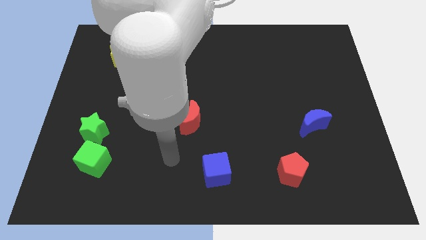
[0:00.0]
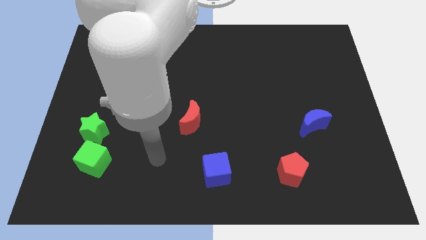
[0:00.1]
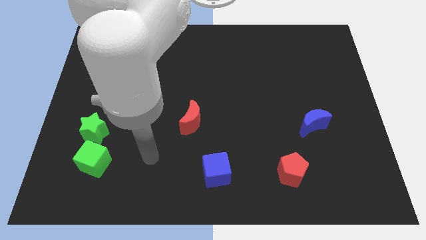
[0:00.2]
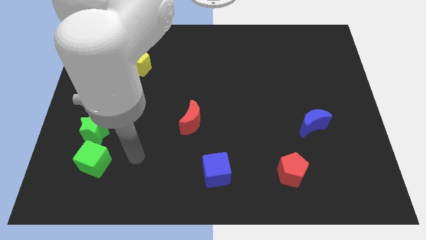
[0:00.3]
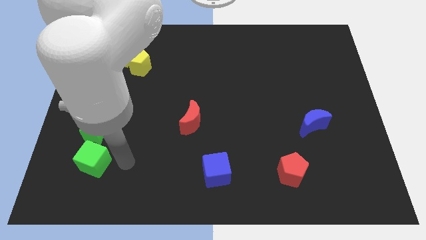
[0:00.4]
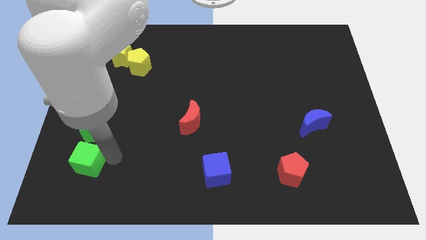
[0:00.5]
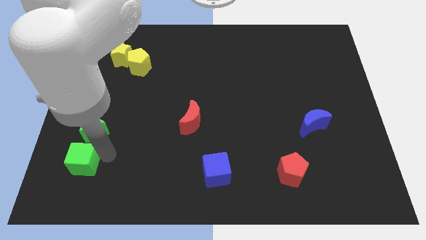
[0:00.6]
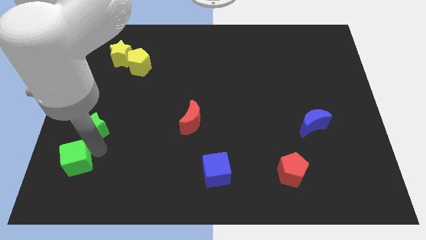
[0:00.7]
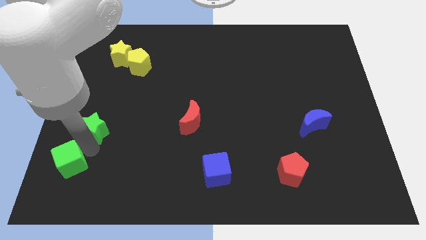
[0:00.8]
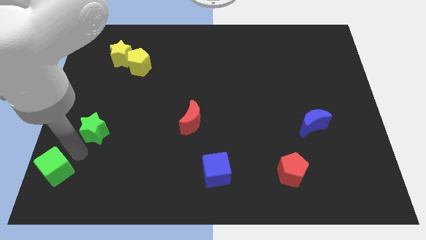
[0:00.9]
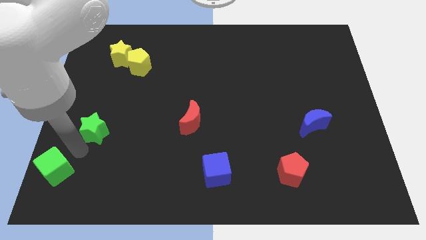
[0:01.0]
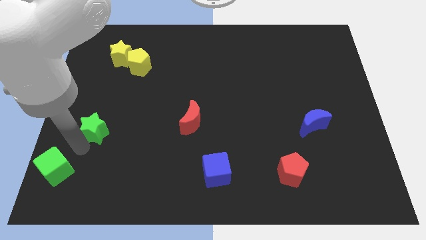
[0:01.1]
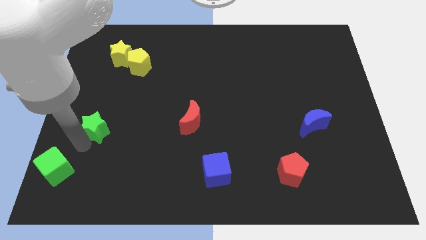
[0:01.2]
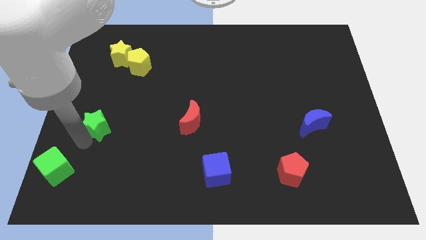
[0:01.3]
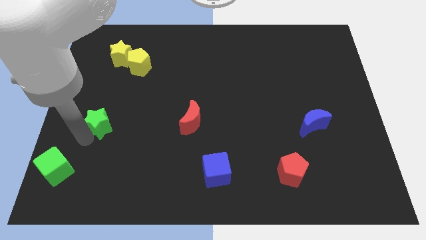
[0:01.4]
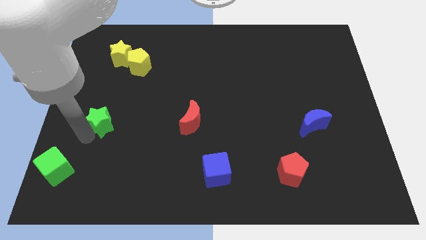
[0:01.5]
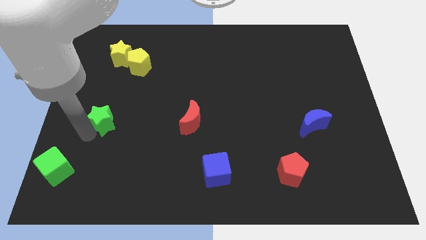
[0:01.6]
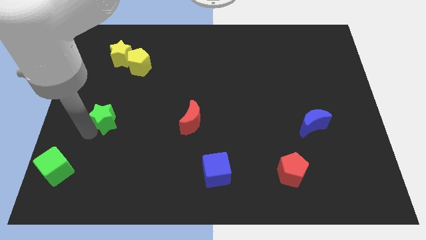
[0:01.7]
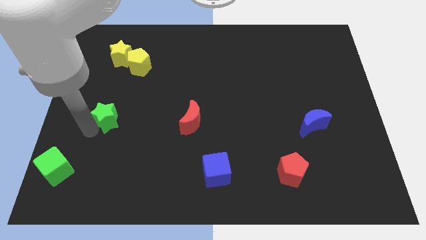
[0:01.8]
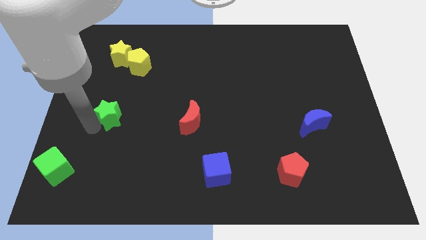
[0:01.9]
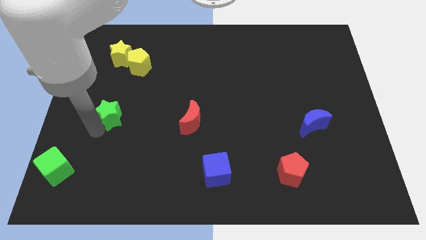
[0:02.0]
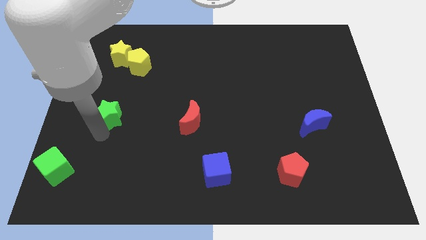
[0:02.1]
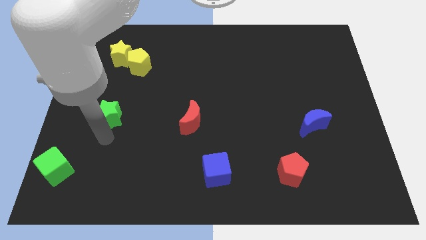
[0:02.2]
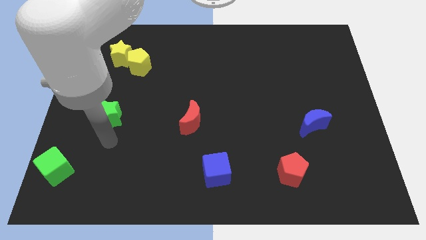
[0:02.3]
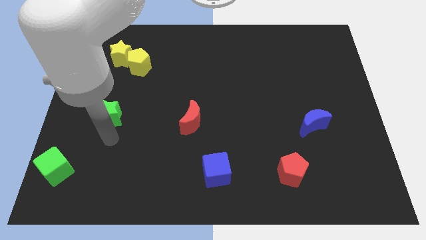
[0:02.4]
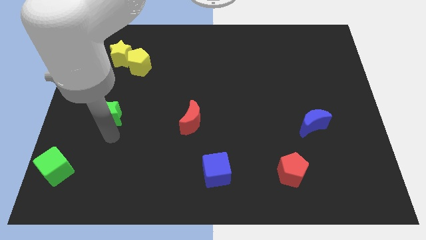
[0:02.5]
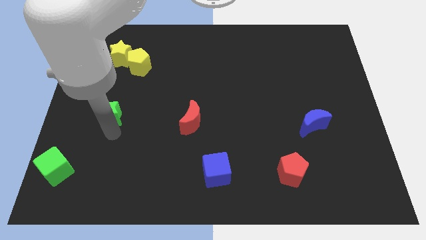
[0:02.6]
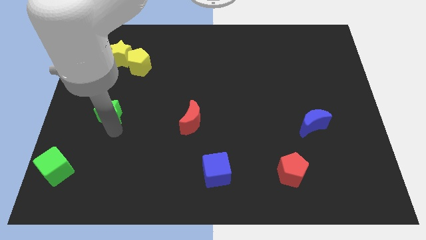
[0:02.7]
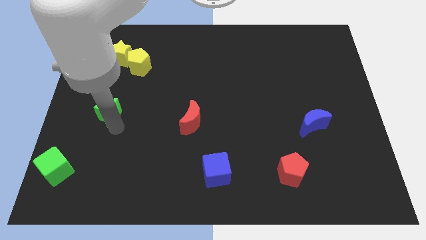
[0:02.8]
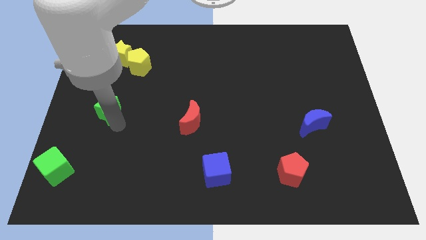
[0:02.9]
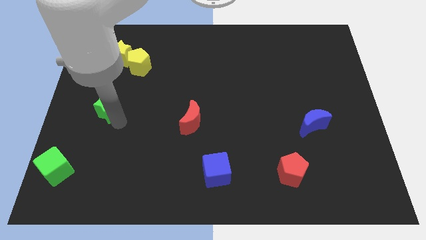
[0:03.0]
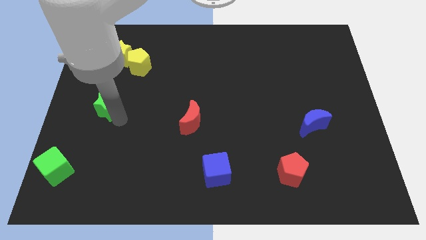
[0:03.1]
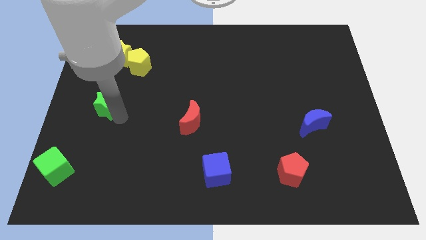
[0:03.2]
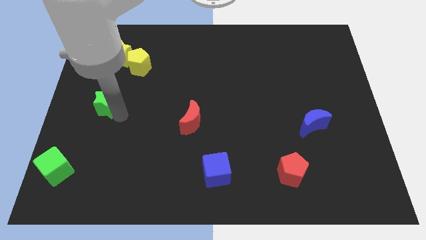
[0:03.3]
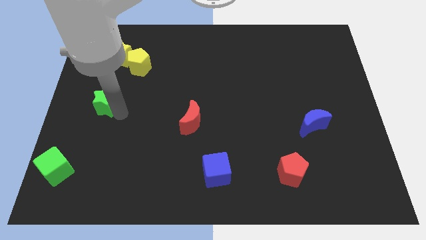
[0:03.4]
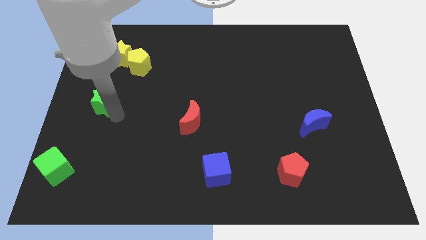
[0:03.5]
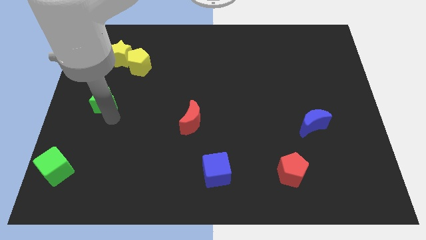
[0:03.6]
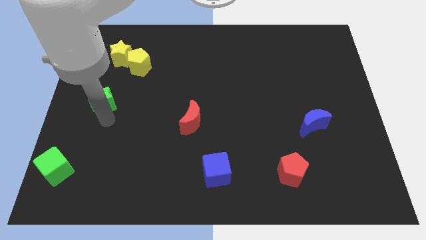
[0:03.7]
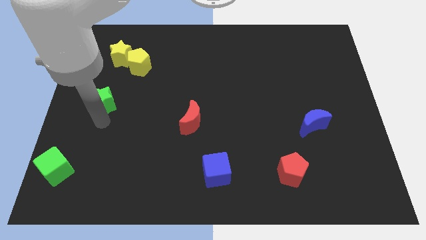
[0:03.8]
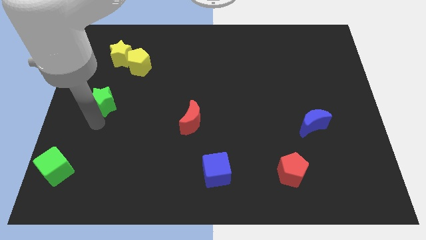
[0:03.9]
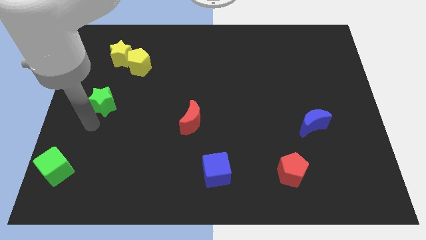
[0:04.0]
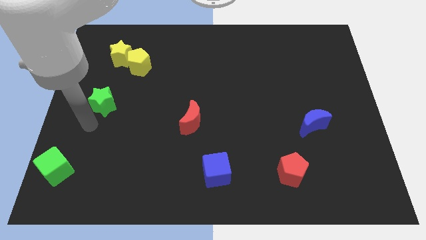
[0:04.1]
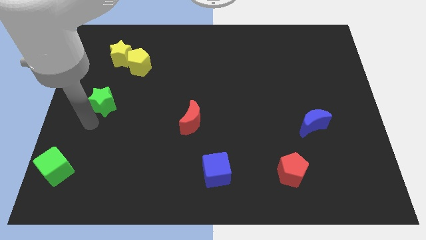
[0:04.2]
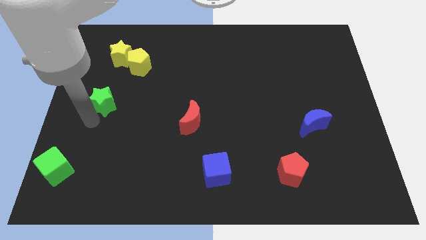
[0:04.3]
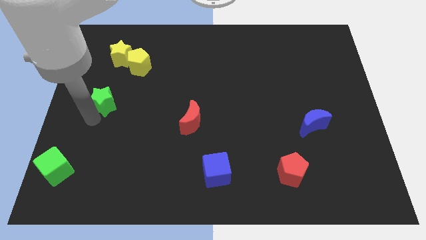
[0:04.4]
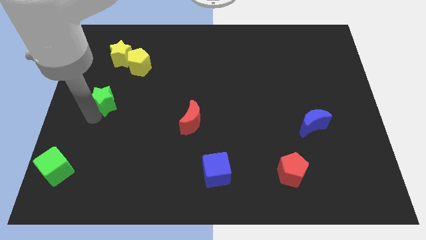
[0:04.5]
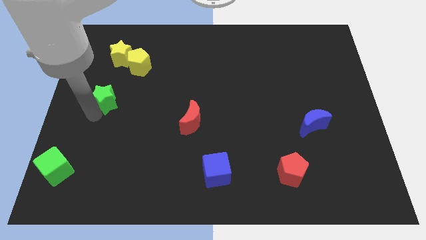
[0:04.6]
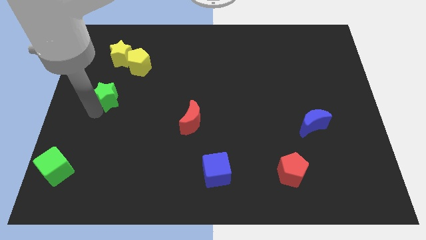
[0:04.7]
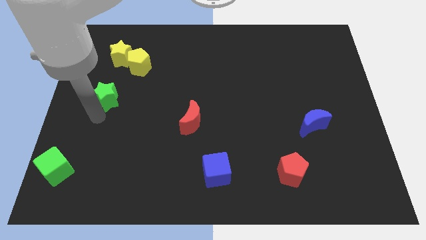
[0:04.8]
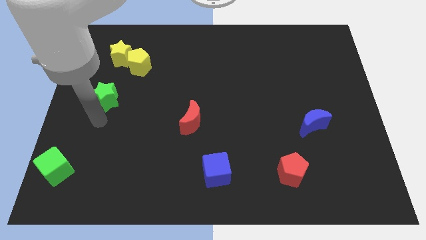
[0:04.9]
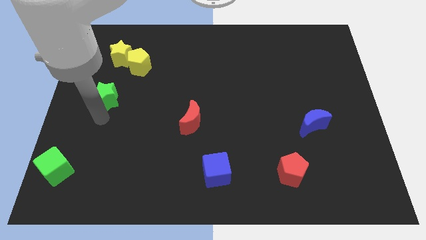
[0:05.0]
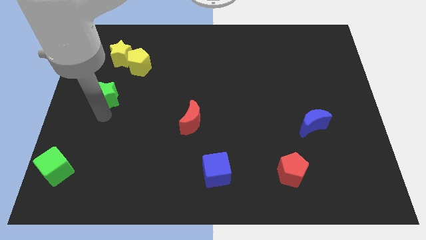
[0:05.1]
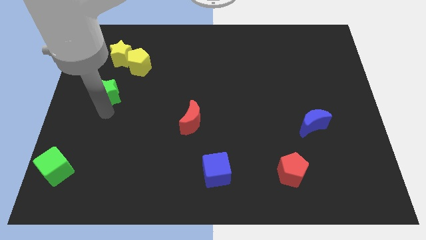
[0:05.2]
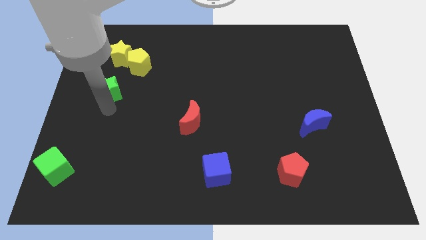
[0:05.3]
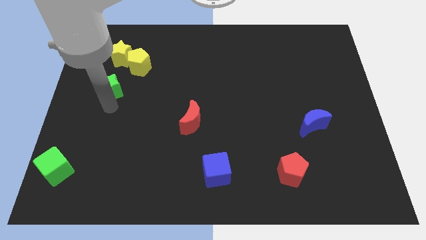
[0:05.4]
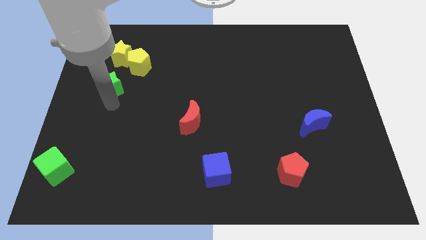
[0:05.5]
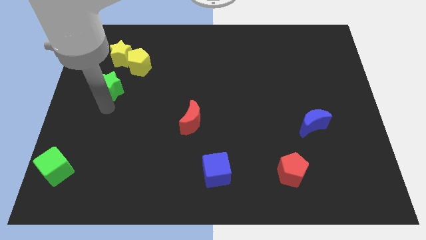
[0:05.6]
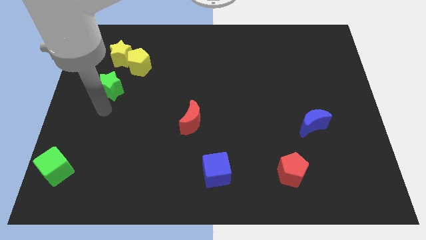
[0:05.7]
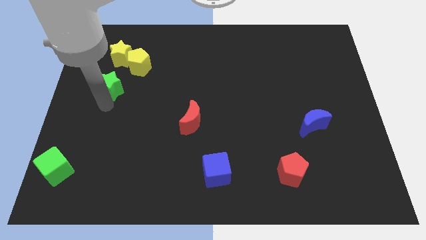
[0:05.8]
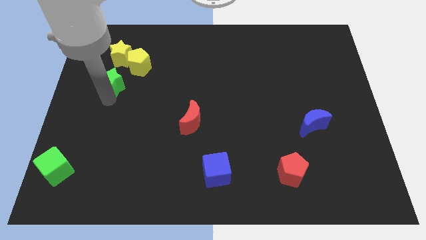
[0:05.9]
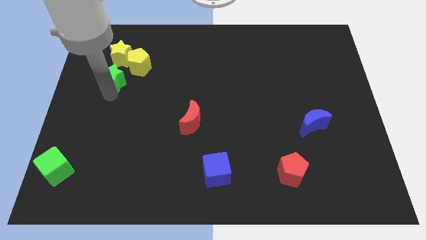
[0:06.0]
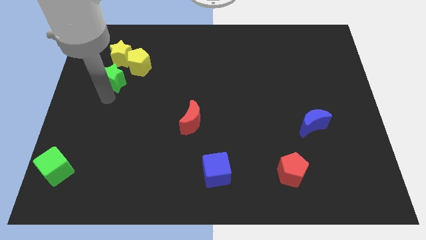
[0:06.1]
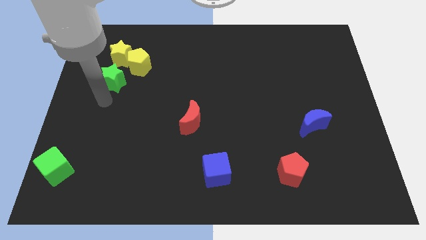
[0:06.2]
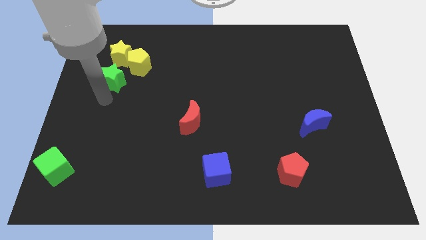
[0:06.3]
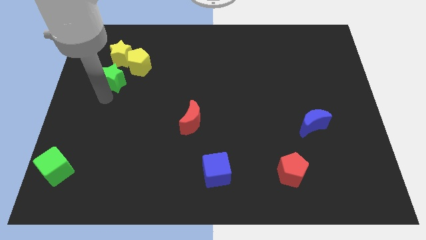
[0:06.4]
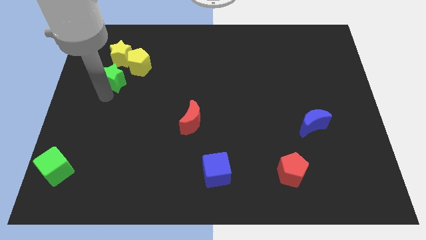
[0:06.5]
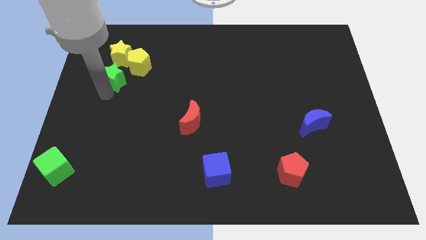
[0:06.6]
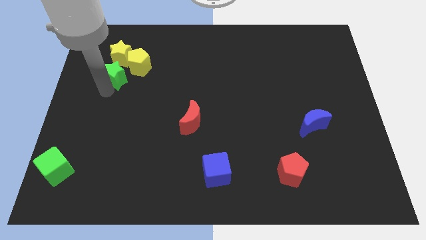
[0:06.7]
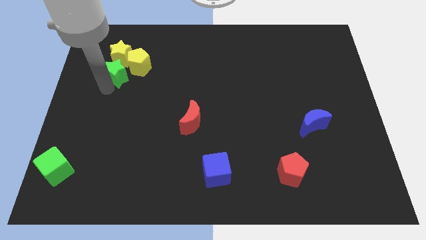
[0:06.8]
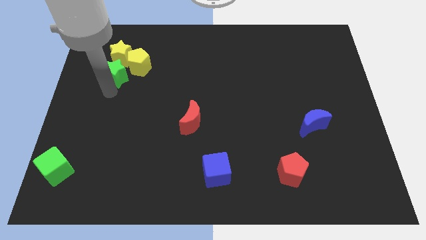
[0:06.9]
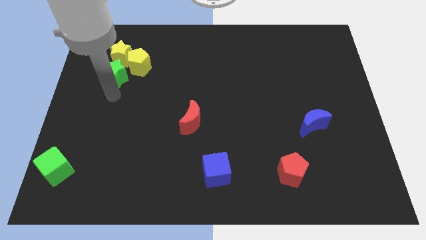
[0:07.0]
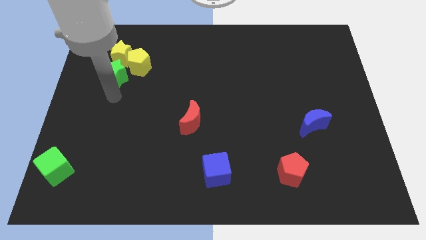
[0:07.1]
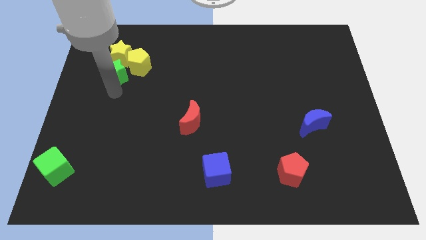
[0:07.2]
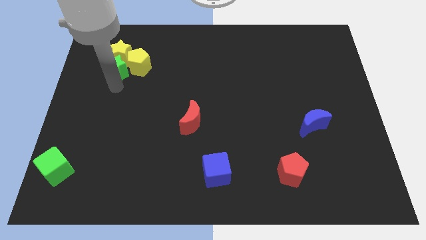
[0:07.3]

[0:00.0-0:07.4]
put the green star next to the yellow star
